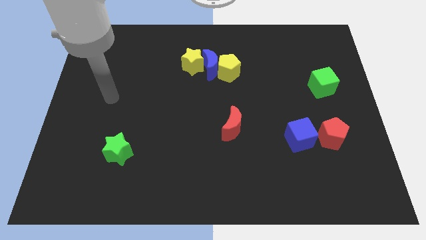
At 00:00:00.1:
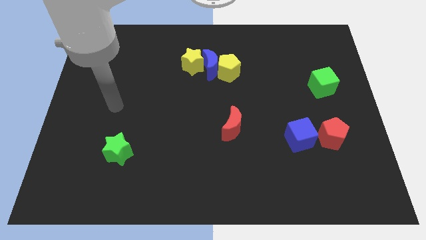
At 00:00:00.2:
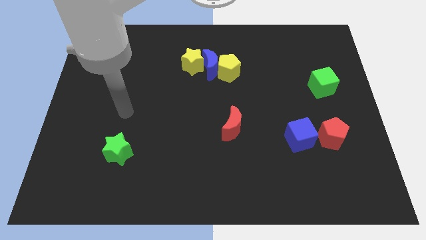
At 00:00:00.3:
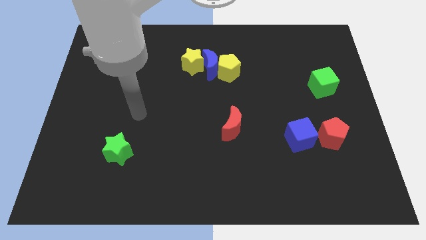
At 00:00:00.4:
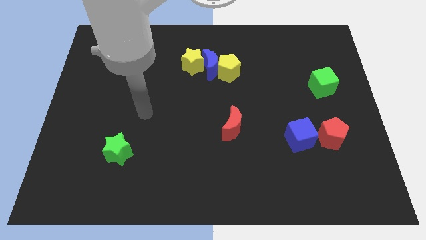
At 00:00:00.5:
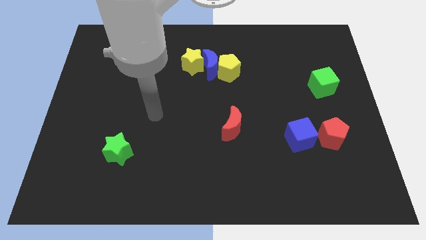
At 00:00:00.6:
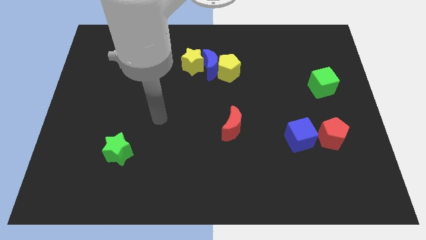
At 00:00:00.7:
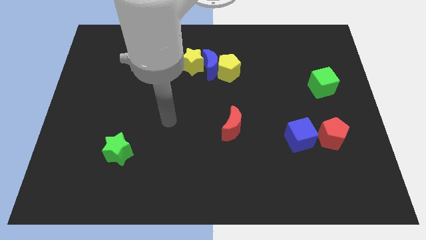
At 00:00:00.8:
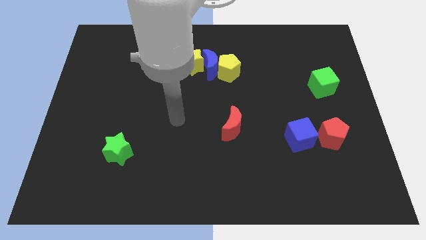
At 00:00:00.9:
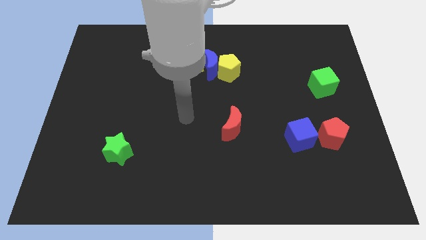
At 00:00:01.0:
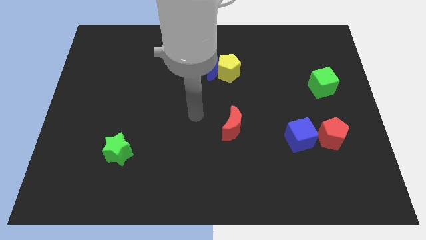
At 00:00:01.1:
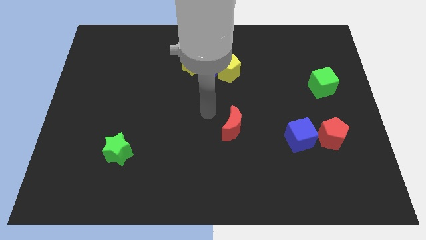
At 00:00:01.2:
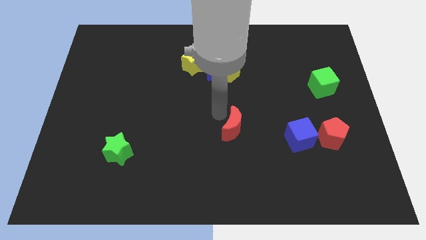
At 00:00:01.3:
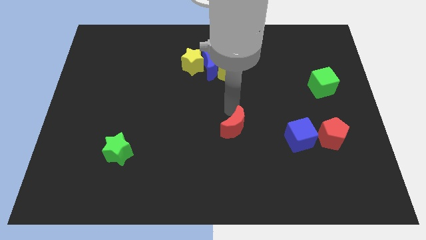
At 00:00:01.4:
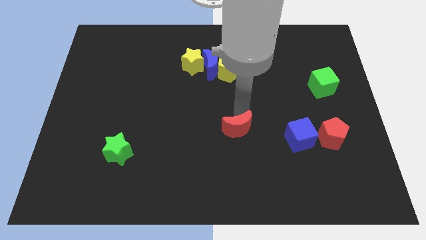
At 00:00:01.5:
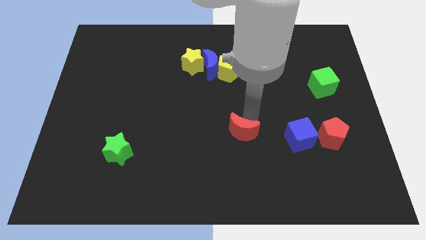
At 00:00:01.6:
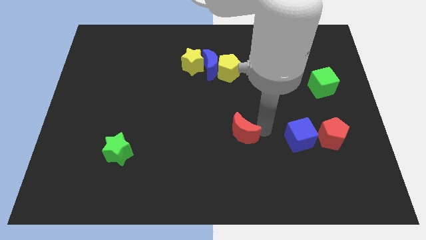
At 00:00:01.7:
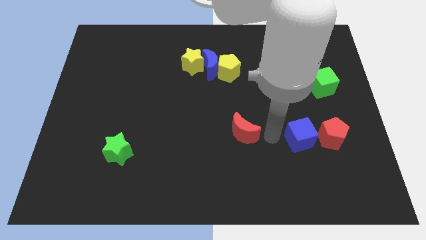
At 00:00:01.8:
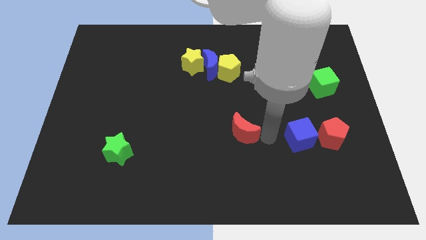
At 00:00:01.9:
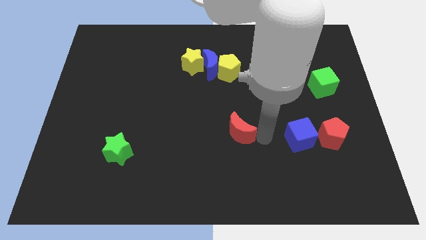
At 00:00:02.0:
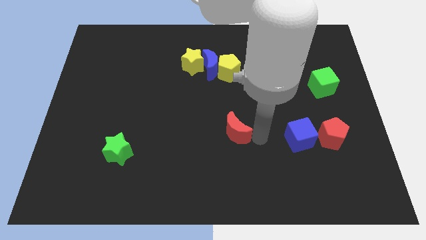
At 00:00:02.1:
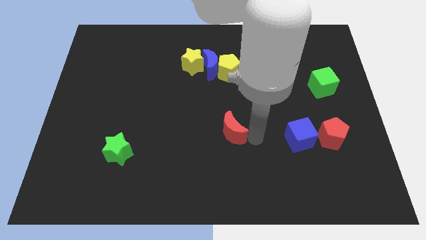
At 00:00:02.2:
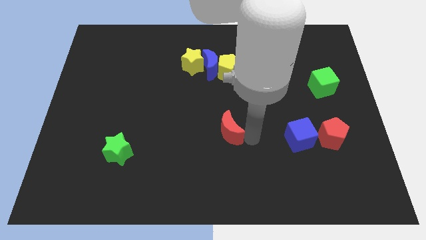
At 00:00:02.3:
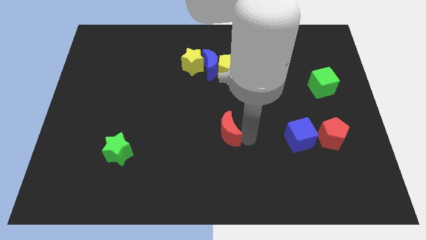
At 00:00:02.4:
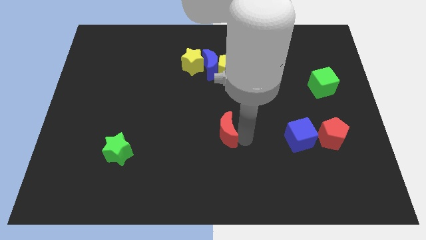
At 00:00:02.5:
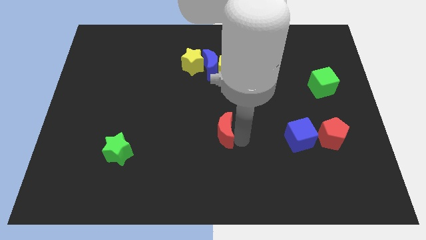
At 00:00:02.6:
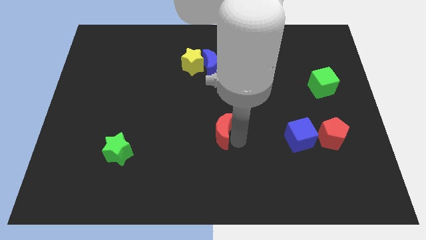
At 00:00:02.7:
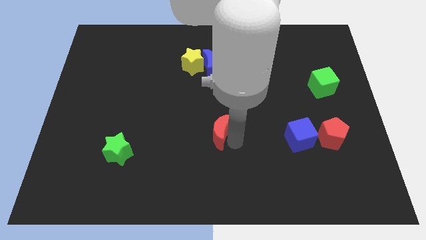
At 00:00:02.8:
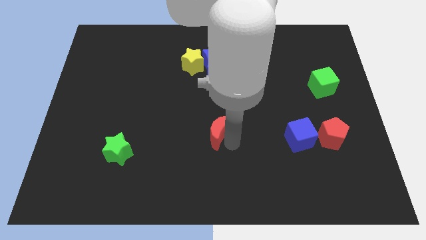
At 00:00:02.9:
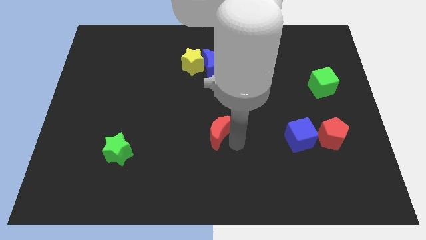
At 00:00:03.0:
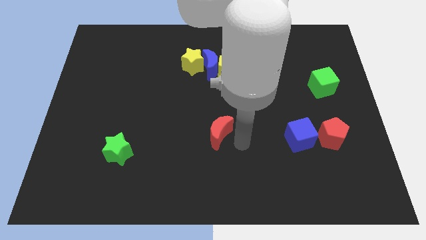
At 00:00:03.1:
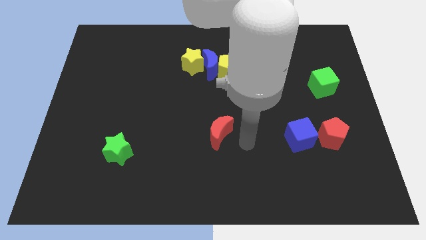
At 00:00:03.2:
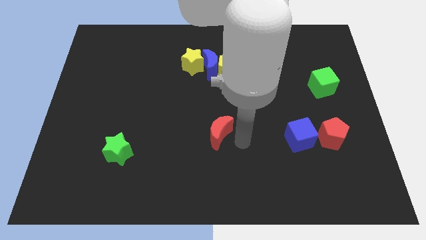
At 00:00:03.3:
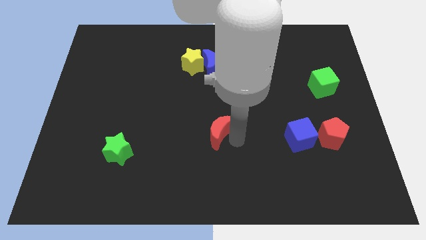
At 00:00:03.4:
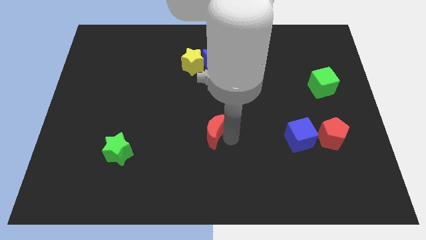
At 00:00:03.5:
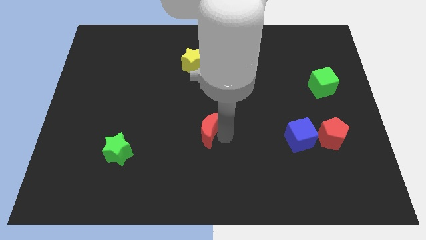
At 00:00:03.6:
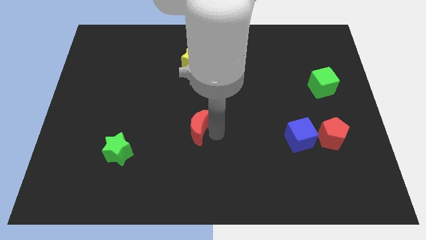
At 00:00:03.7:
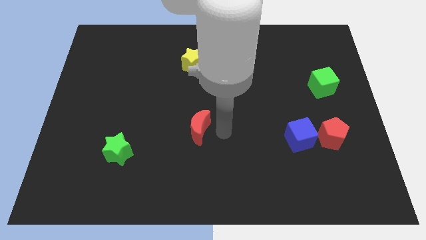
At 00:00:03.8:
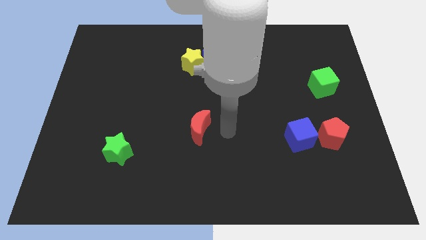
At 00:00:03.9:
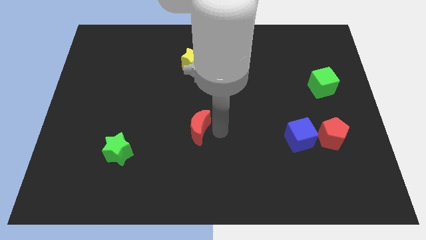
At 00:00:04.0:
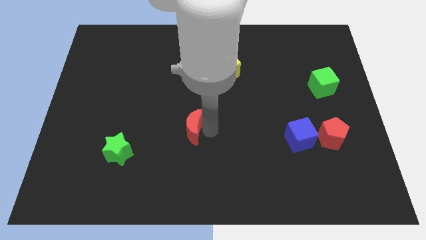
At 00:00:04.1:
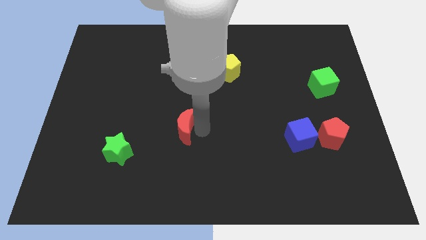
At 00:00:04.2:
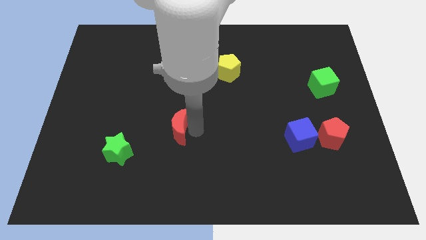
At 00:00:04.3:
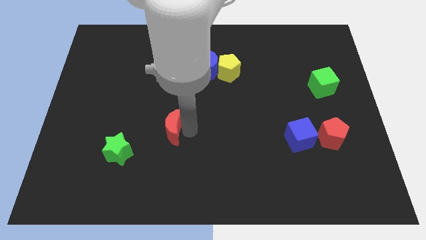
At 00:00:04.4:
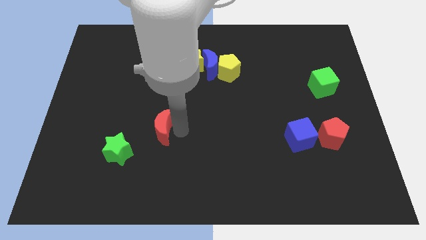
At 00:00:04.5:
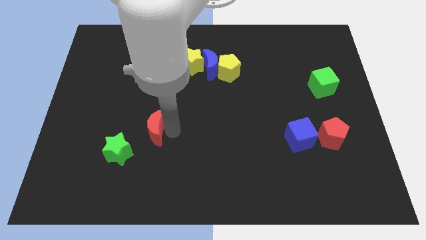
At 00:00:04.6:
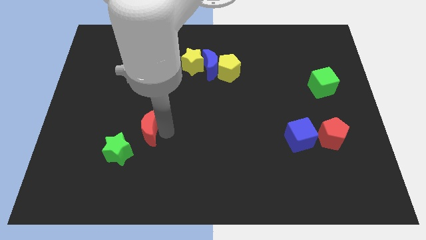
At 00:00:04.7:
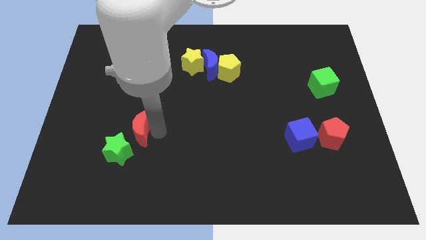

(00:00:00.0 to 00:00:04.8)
move the red moon left

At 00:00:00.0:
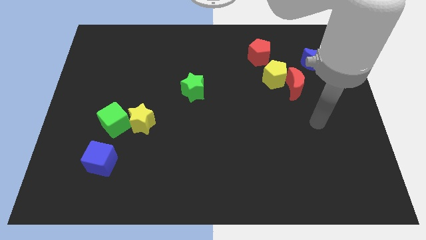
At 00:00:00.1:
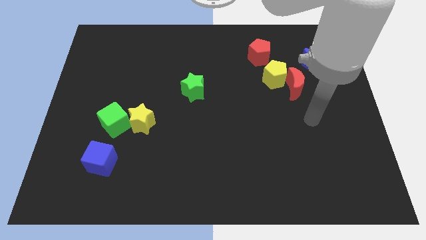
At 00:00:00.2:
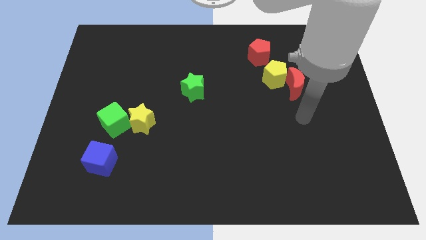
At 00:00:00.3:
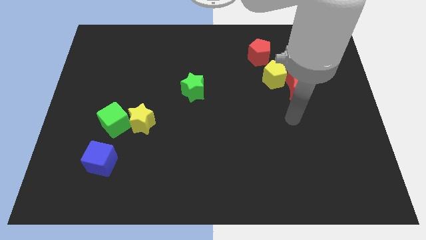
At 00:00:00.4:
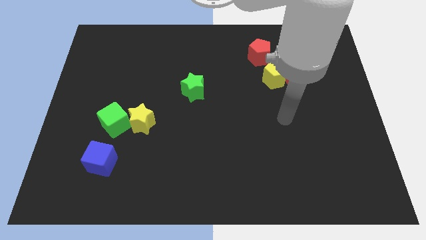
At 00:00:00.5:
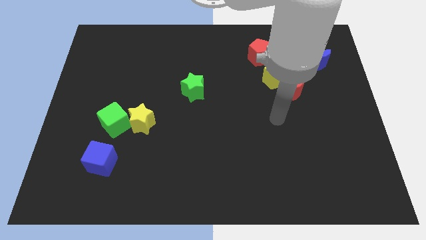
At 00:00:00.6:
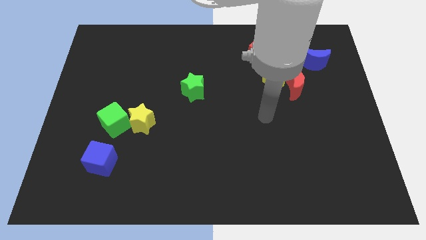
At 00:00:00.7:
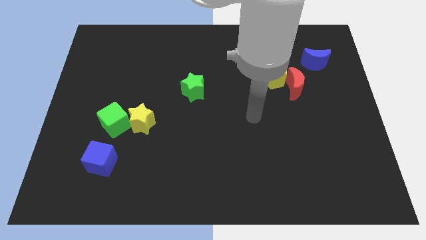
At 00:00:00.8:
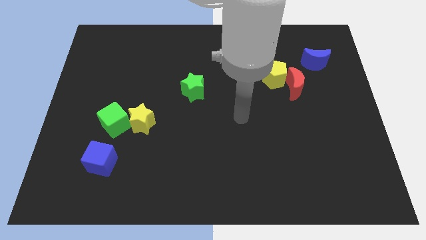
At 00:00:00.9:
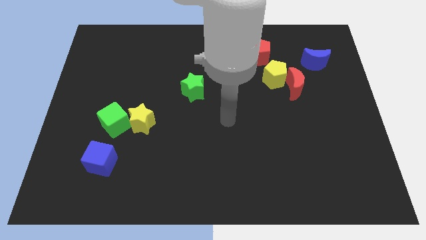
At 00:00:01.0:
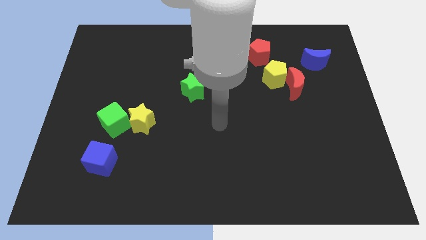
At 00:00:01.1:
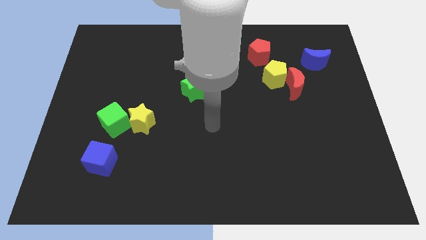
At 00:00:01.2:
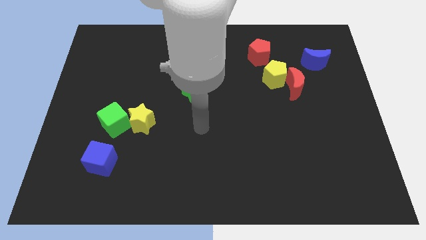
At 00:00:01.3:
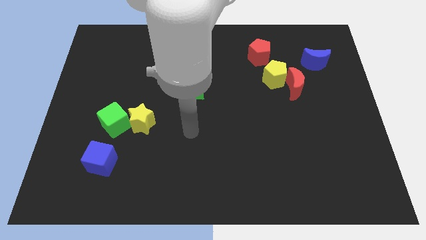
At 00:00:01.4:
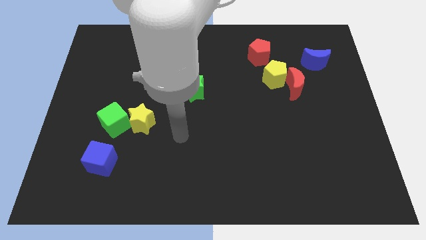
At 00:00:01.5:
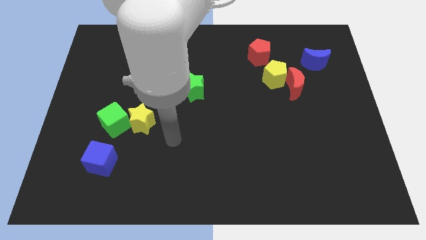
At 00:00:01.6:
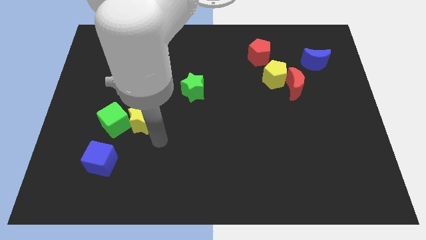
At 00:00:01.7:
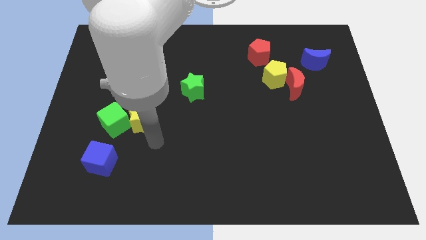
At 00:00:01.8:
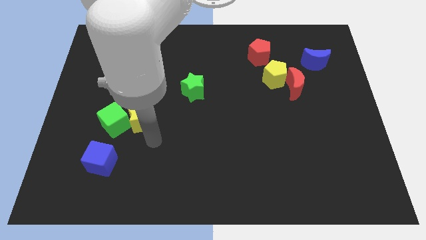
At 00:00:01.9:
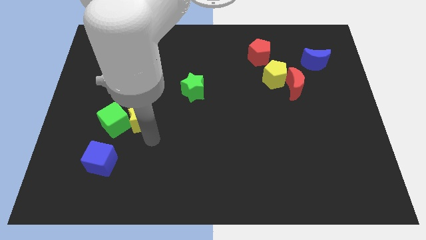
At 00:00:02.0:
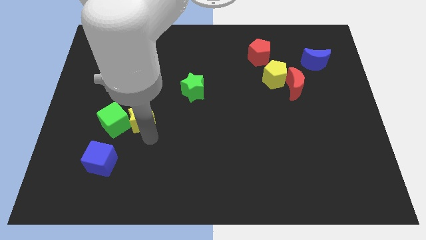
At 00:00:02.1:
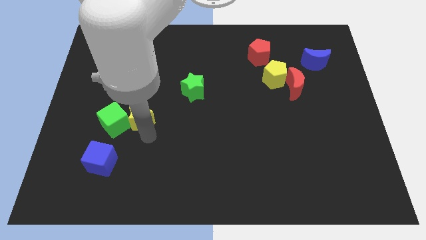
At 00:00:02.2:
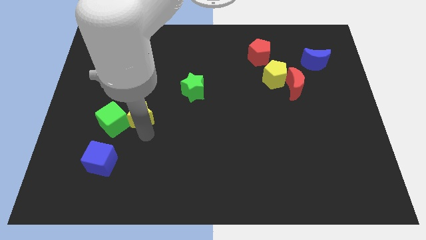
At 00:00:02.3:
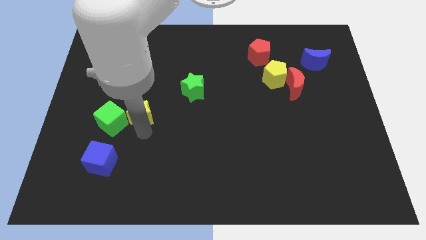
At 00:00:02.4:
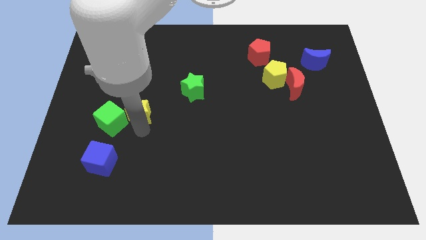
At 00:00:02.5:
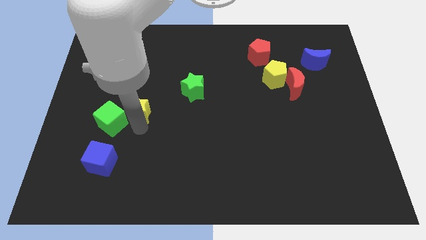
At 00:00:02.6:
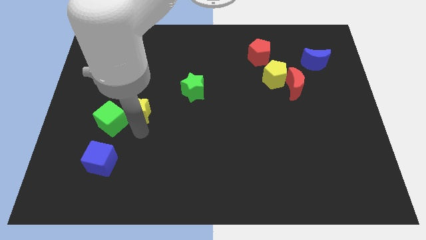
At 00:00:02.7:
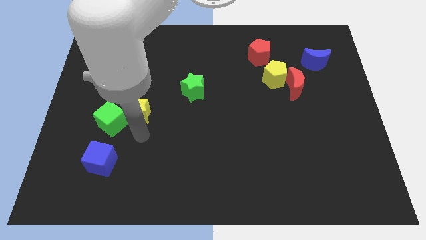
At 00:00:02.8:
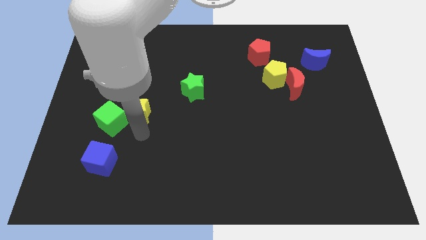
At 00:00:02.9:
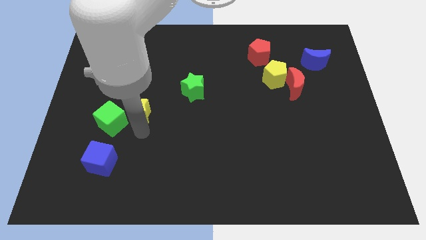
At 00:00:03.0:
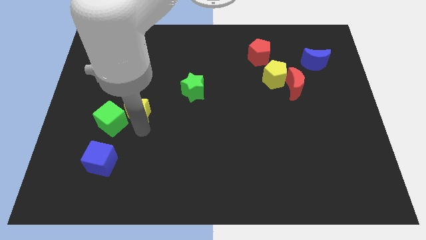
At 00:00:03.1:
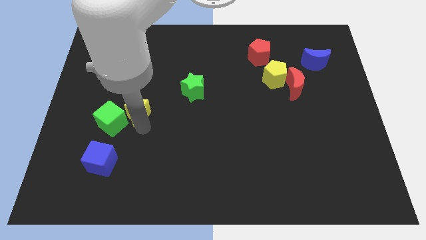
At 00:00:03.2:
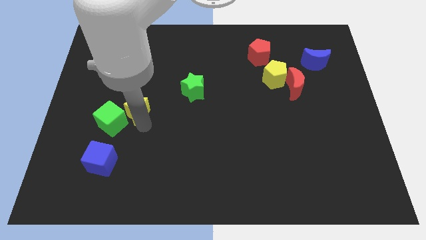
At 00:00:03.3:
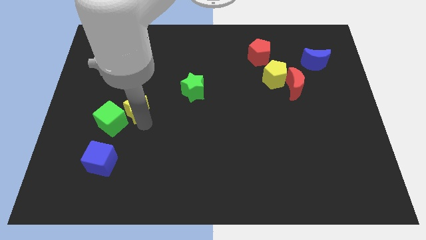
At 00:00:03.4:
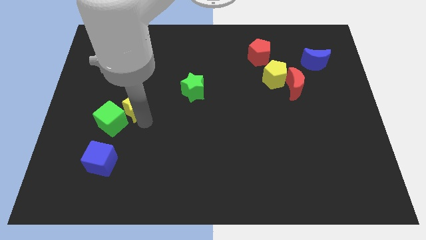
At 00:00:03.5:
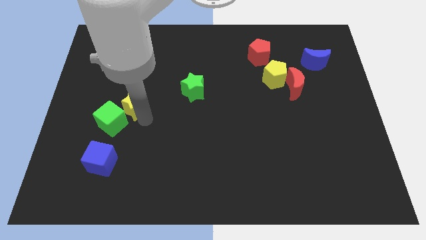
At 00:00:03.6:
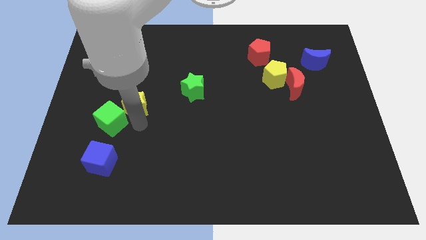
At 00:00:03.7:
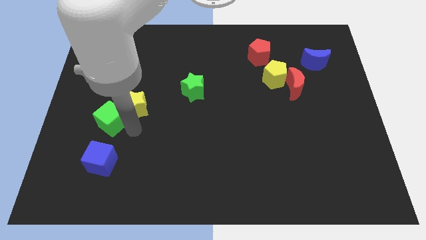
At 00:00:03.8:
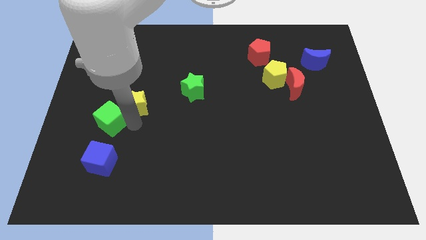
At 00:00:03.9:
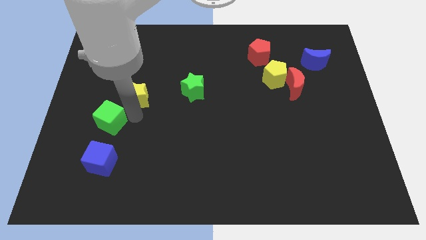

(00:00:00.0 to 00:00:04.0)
slightly slide the yellow star upwards
